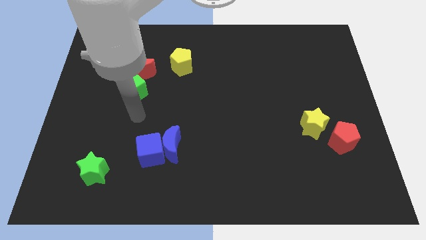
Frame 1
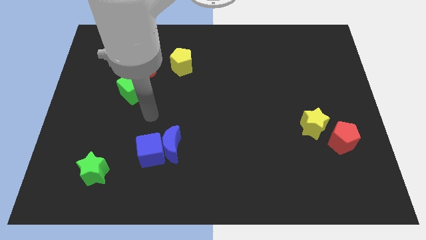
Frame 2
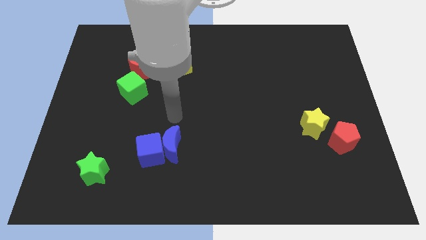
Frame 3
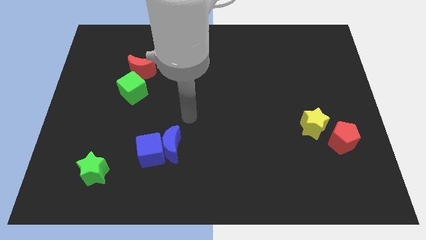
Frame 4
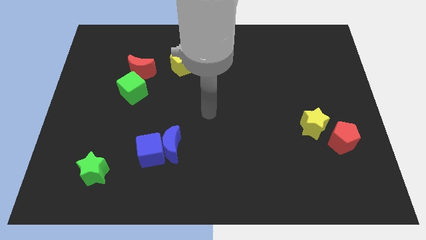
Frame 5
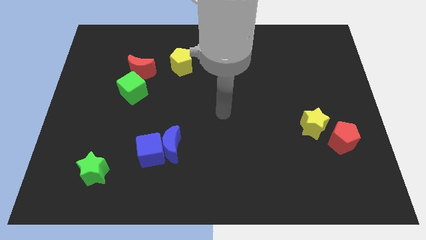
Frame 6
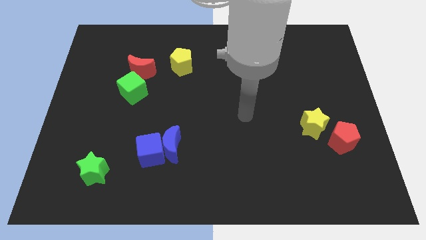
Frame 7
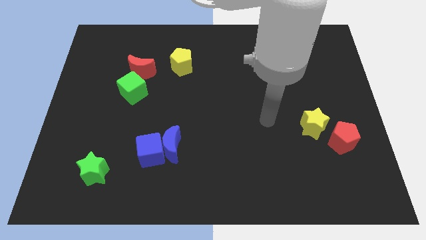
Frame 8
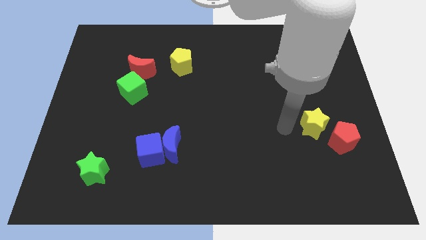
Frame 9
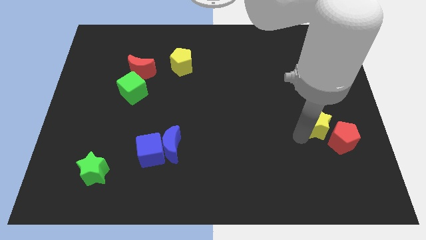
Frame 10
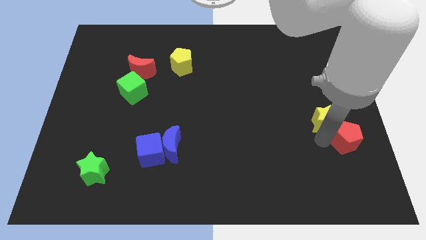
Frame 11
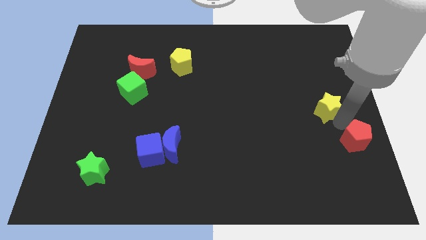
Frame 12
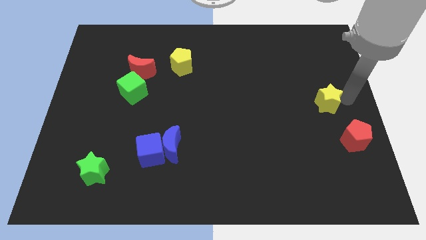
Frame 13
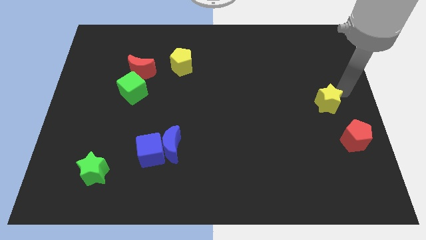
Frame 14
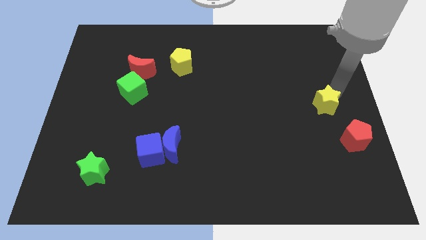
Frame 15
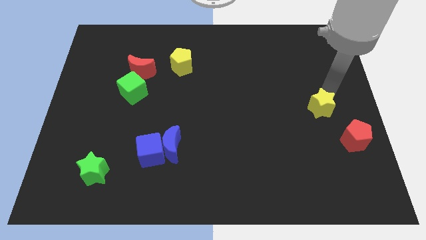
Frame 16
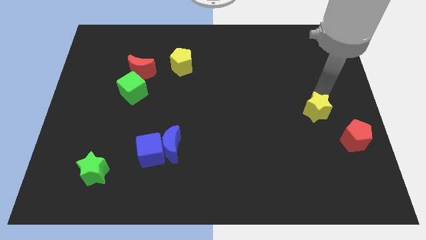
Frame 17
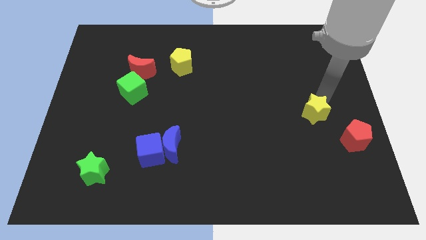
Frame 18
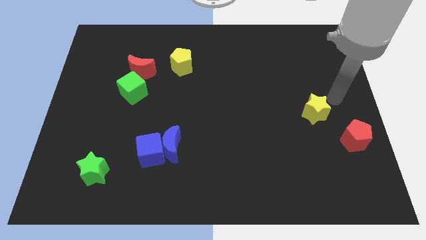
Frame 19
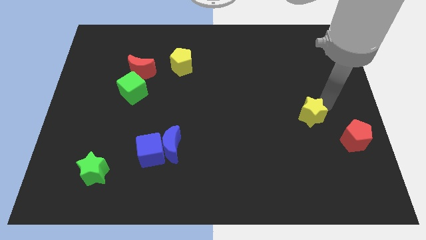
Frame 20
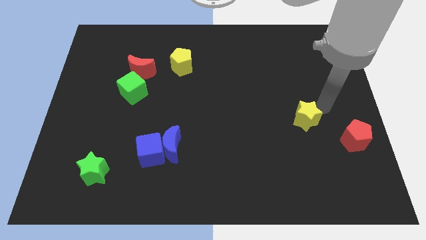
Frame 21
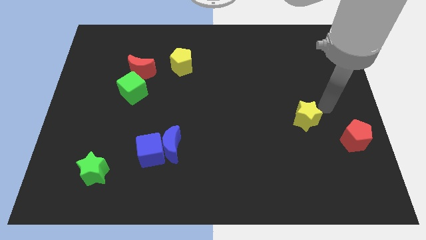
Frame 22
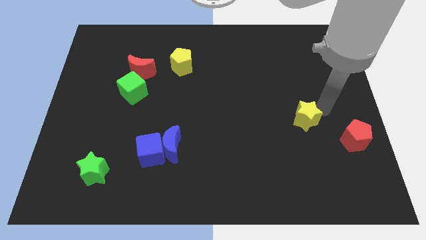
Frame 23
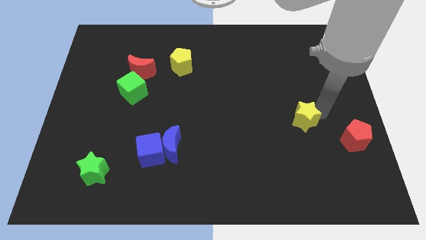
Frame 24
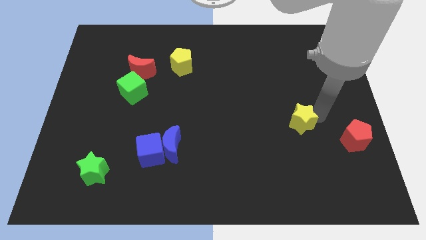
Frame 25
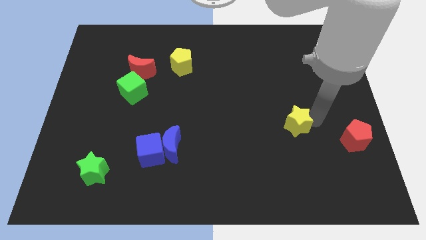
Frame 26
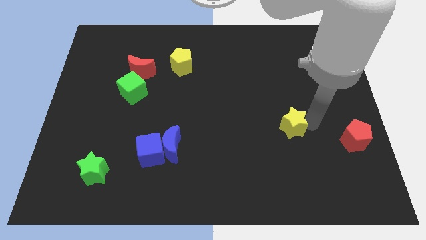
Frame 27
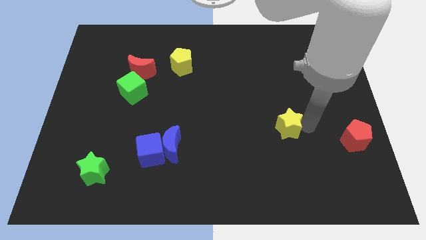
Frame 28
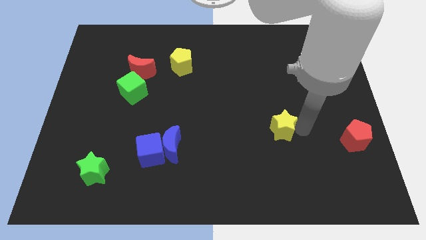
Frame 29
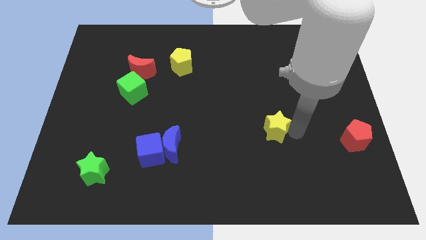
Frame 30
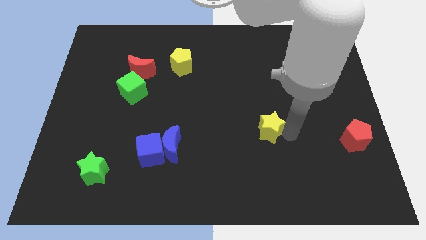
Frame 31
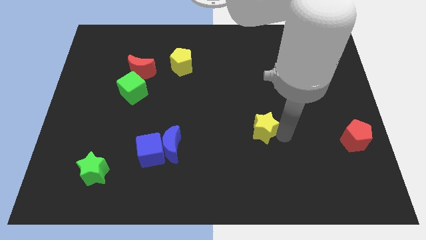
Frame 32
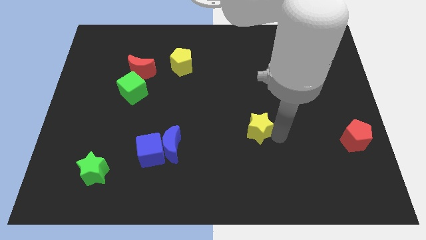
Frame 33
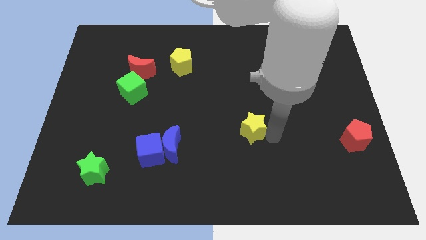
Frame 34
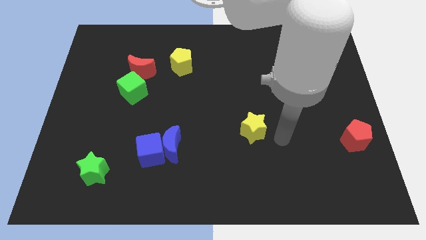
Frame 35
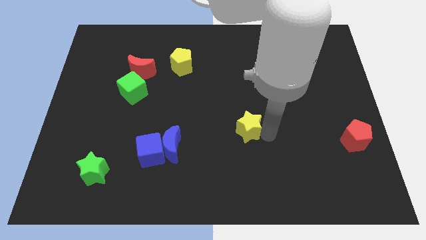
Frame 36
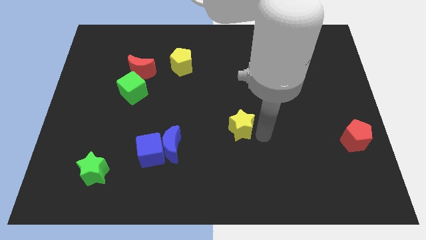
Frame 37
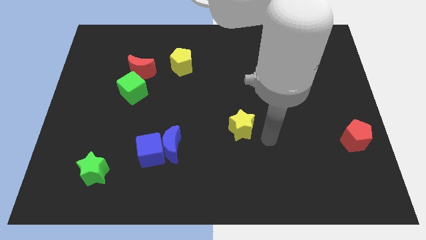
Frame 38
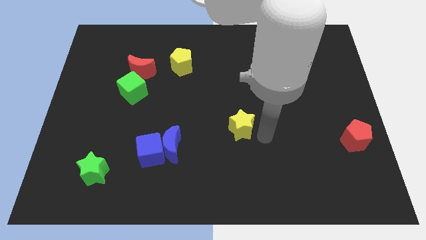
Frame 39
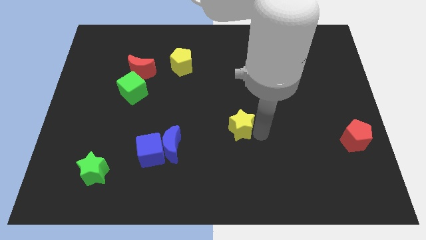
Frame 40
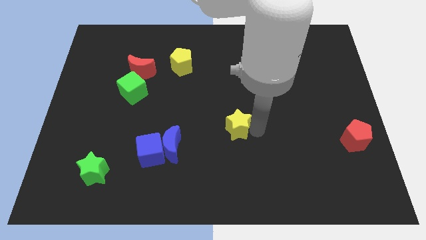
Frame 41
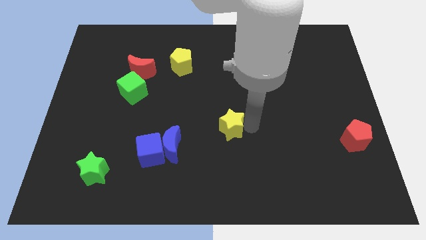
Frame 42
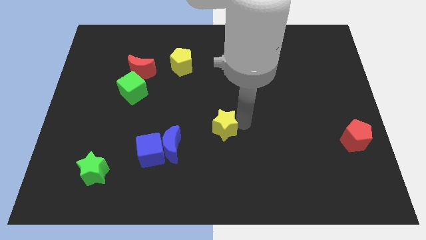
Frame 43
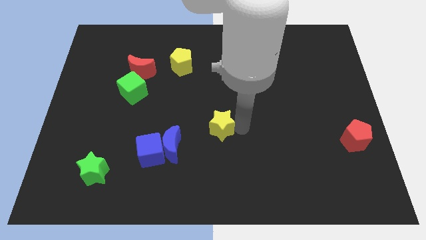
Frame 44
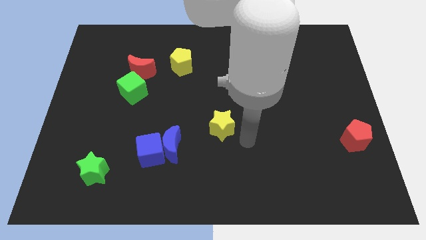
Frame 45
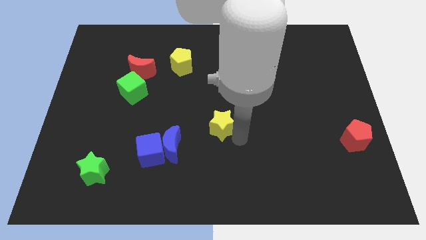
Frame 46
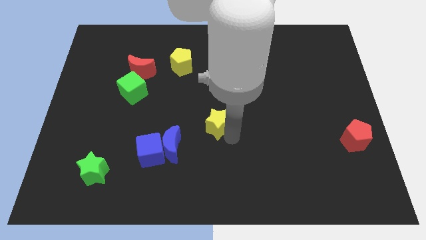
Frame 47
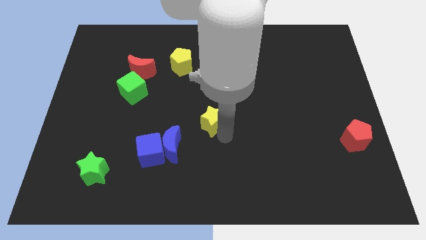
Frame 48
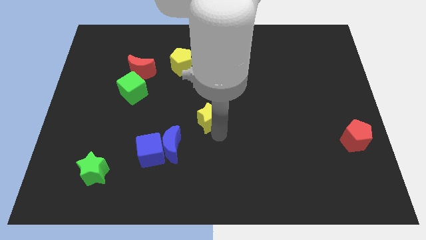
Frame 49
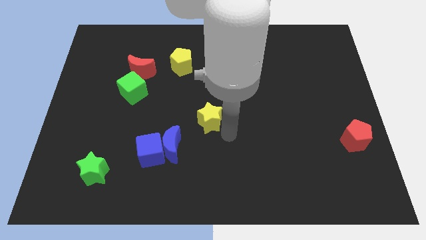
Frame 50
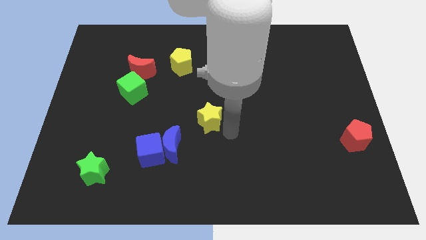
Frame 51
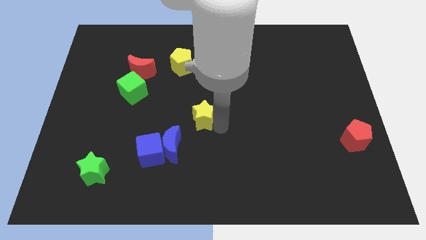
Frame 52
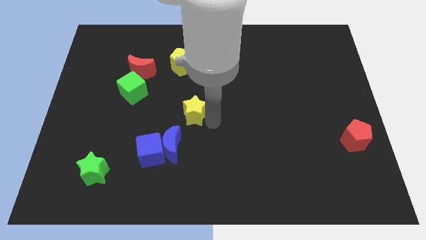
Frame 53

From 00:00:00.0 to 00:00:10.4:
push the yellow star to the top of the blue moon

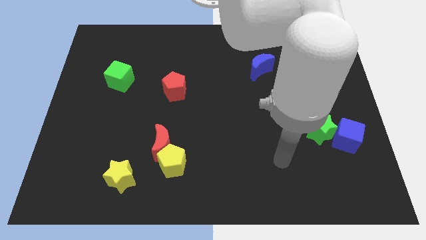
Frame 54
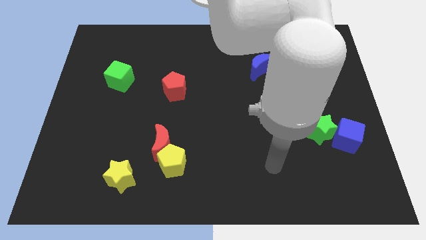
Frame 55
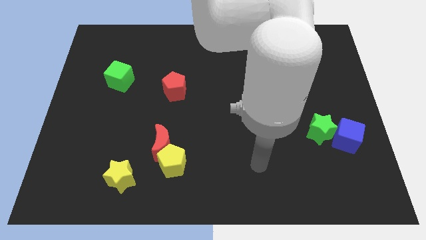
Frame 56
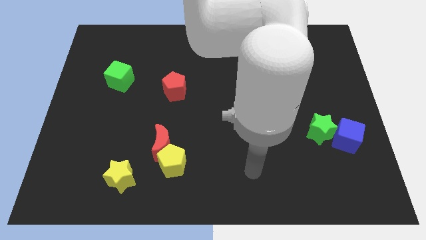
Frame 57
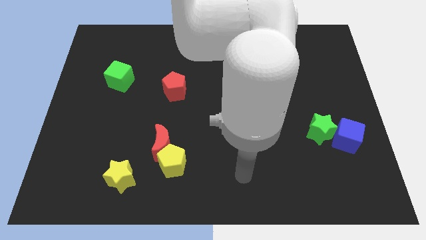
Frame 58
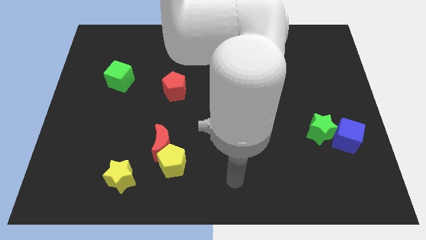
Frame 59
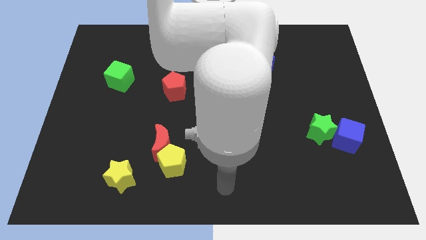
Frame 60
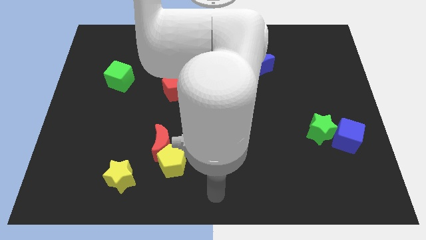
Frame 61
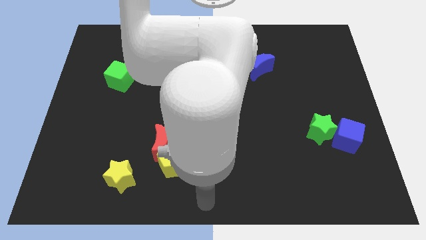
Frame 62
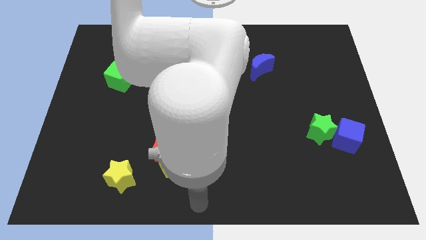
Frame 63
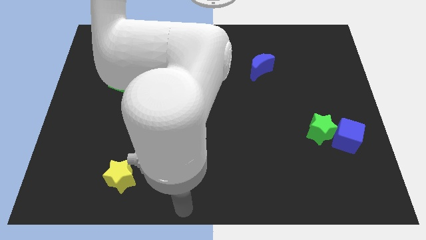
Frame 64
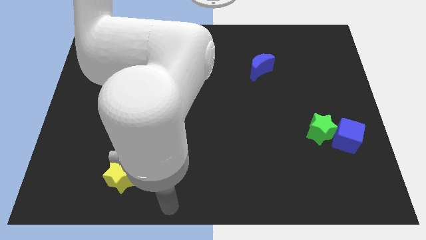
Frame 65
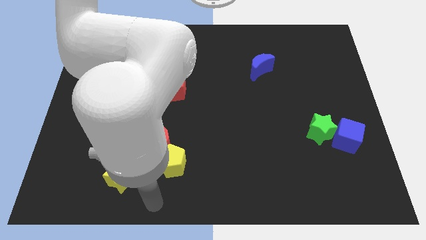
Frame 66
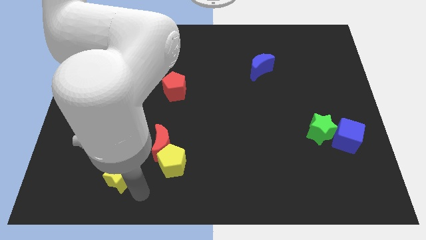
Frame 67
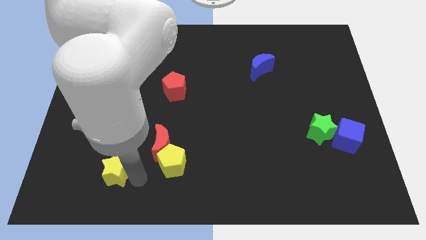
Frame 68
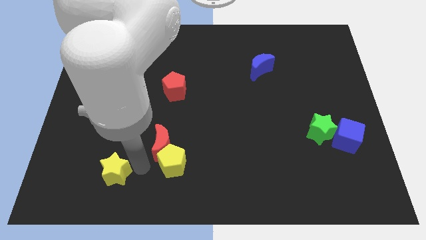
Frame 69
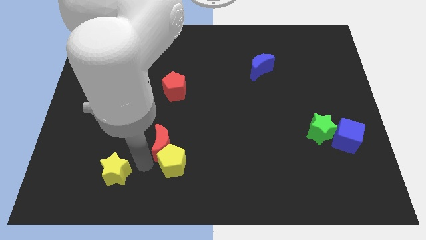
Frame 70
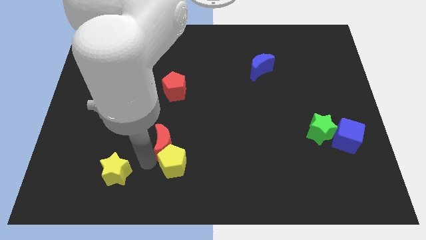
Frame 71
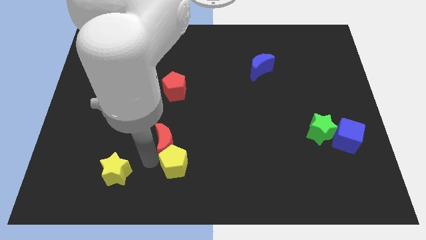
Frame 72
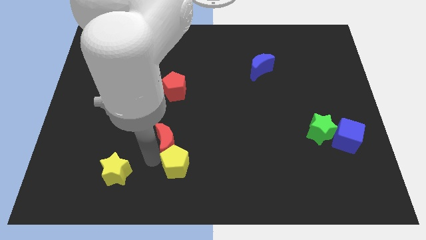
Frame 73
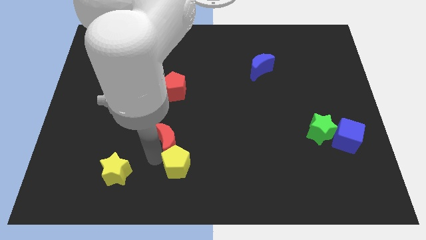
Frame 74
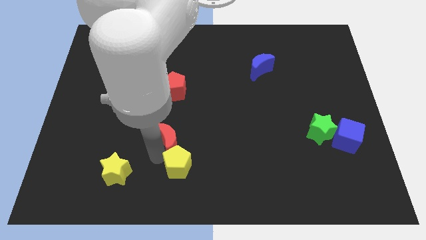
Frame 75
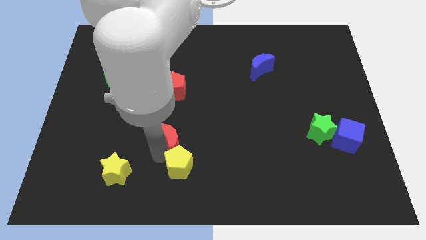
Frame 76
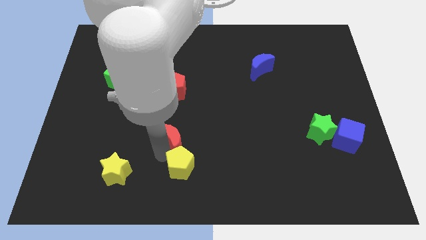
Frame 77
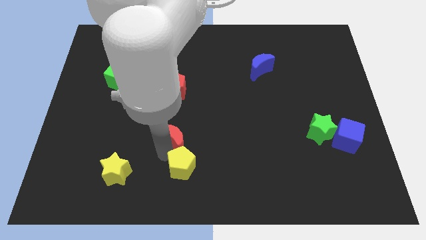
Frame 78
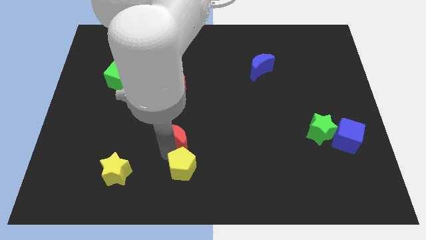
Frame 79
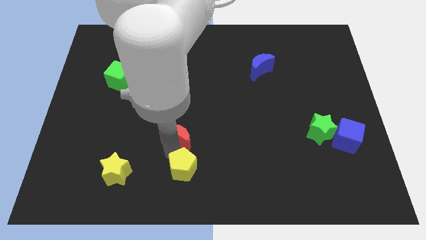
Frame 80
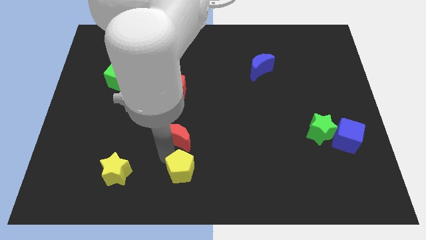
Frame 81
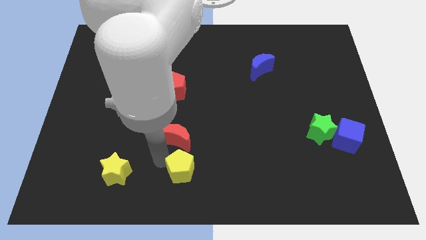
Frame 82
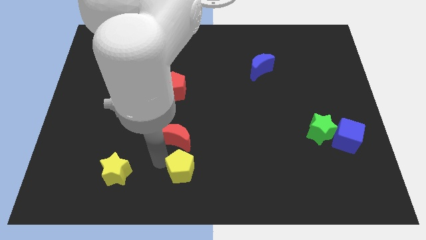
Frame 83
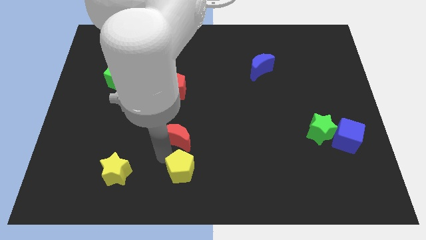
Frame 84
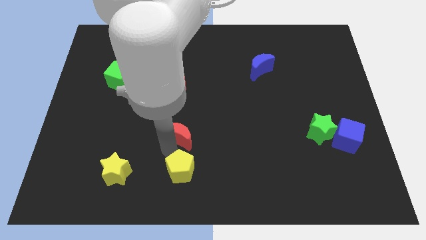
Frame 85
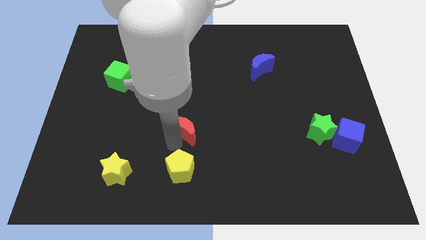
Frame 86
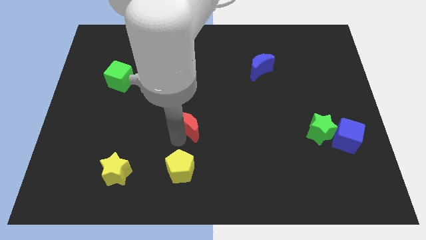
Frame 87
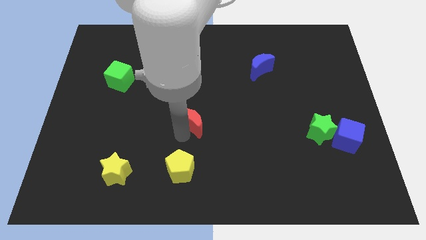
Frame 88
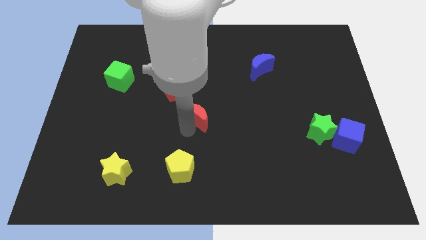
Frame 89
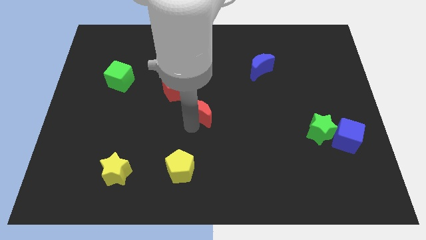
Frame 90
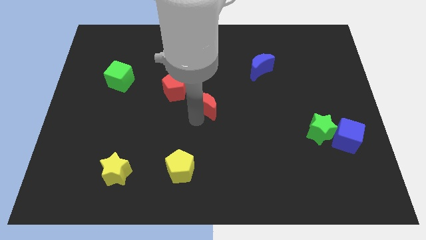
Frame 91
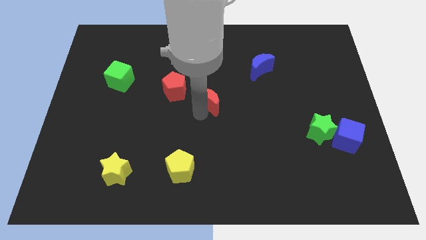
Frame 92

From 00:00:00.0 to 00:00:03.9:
slide the red moon to the right side of the red pentagon
